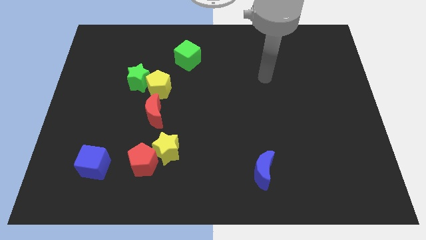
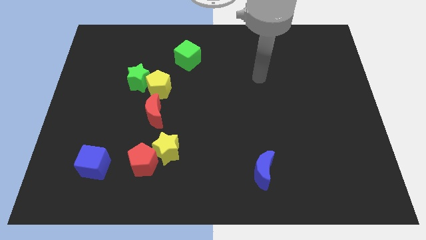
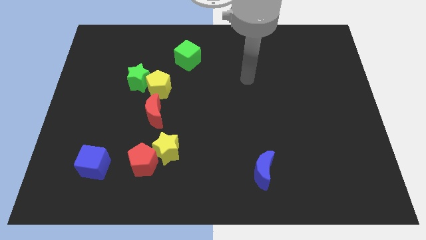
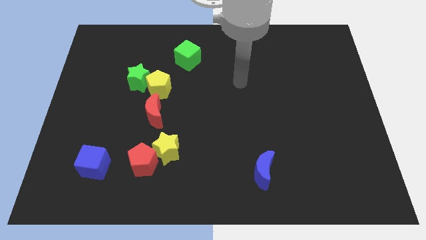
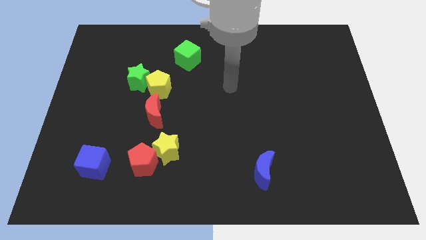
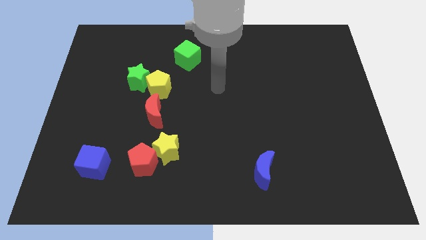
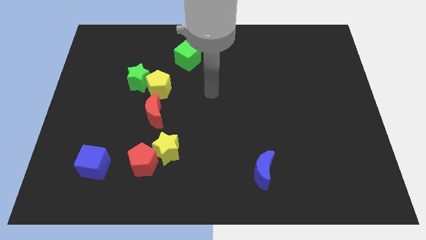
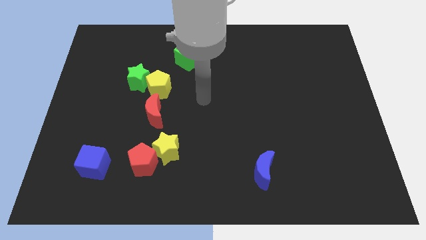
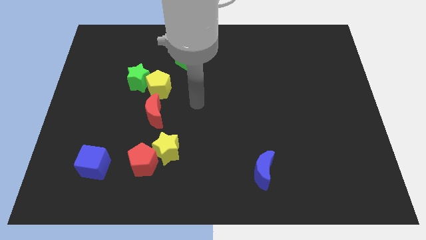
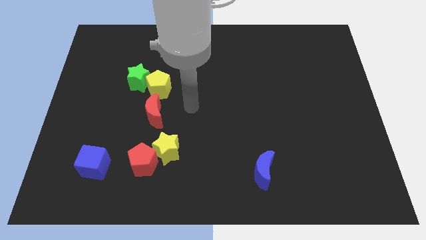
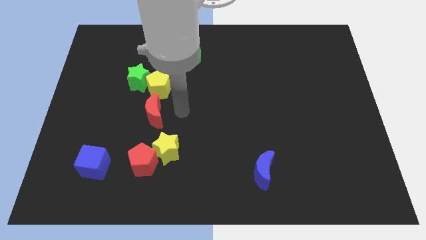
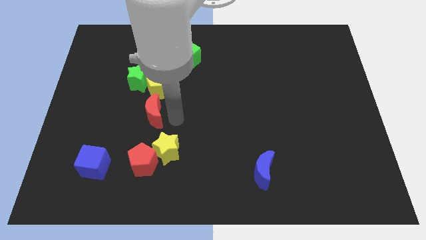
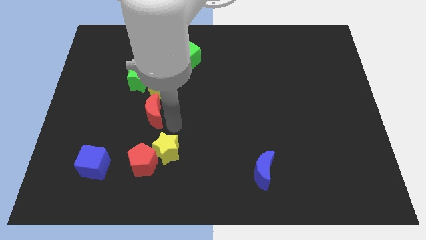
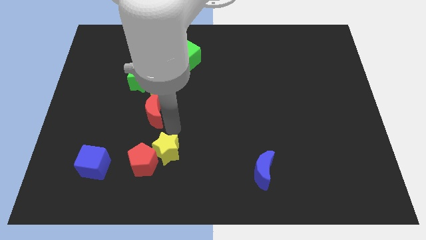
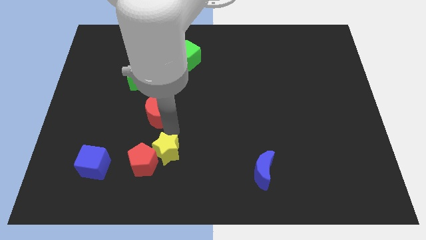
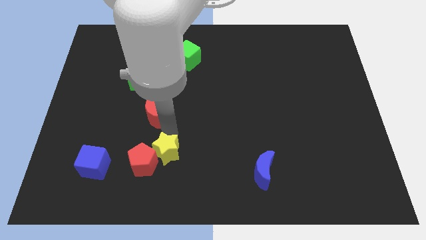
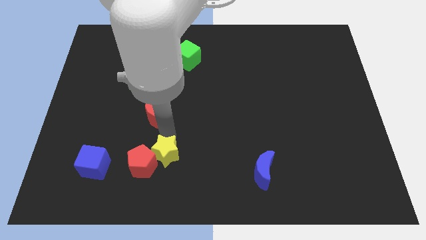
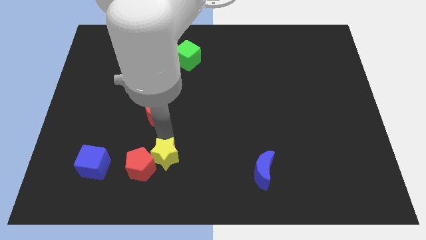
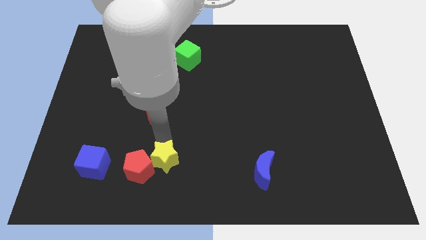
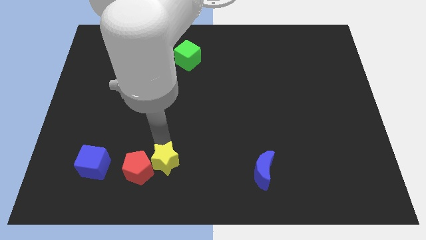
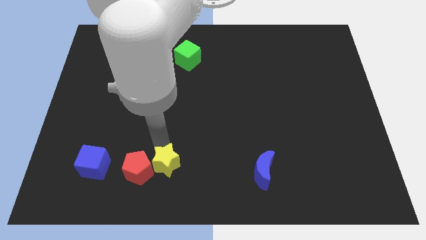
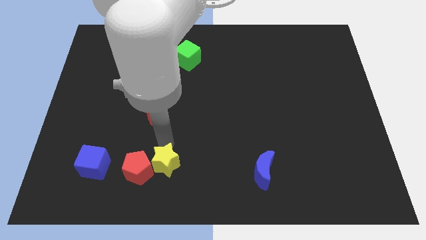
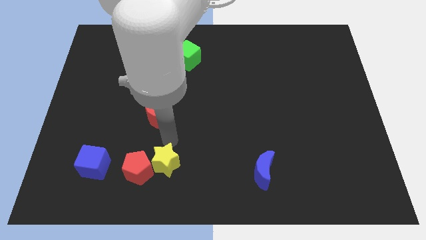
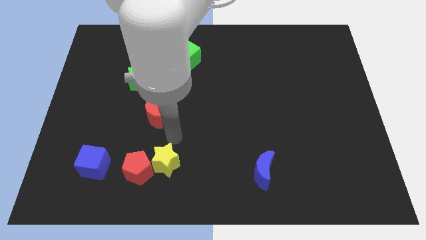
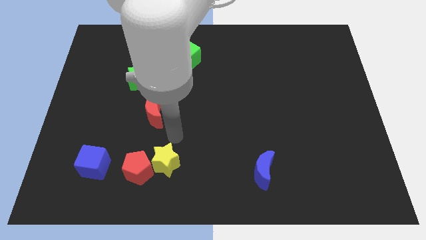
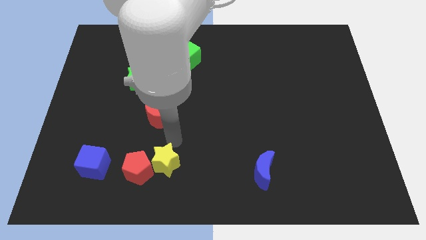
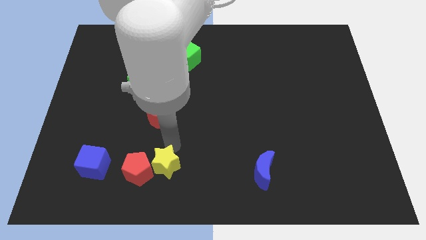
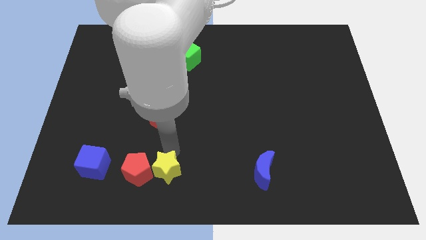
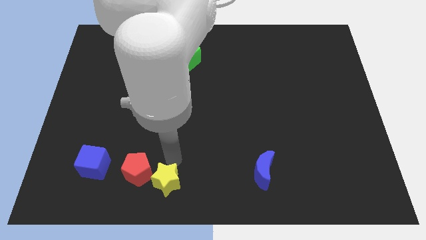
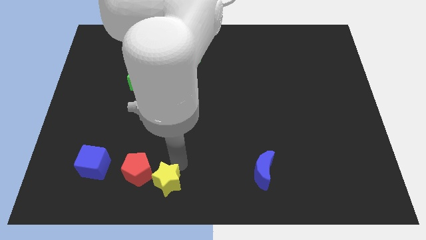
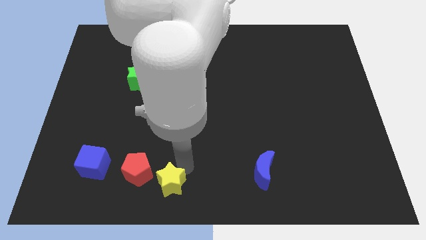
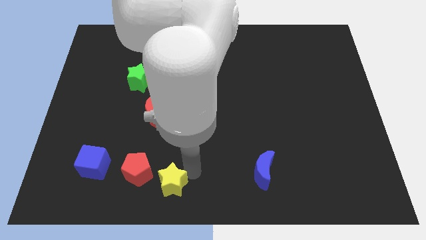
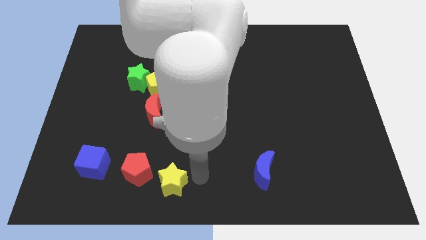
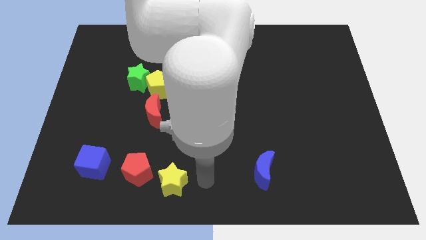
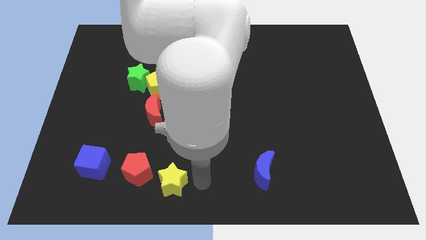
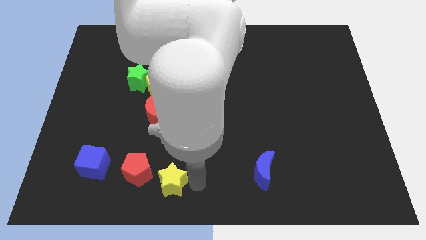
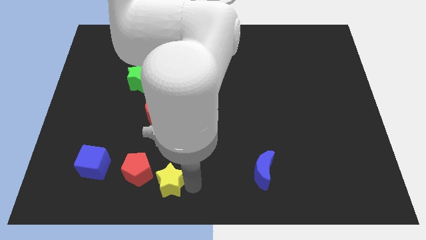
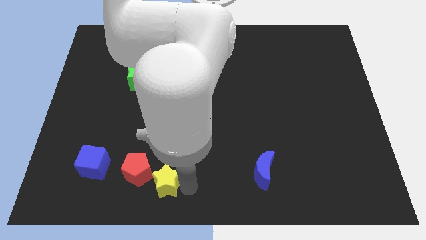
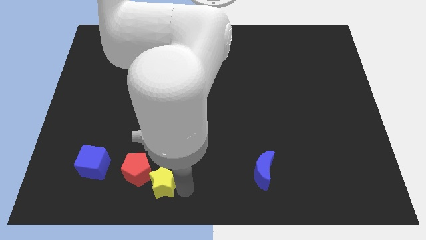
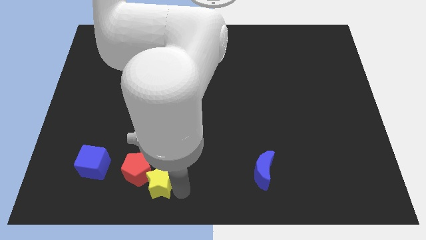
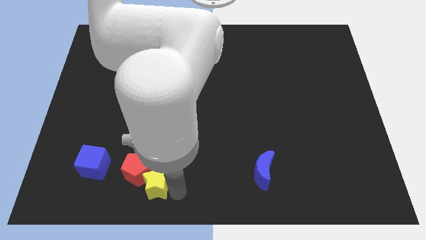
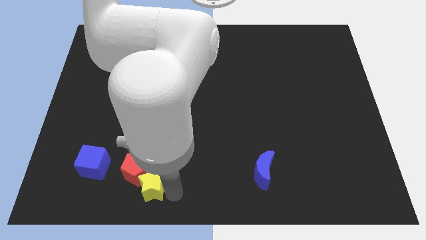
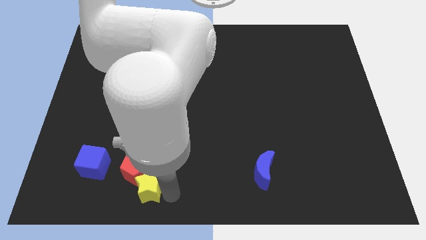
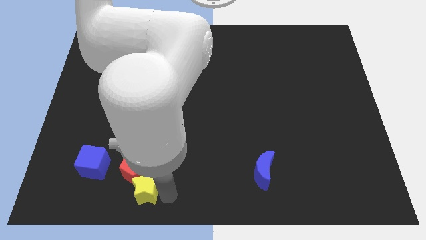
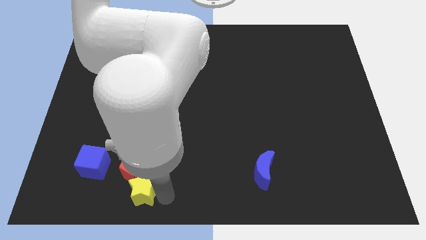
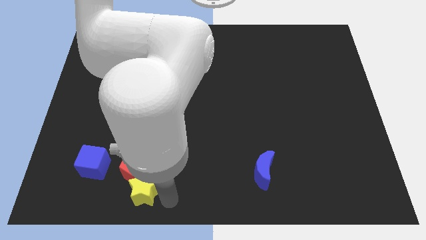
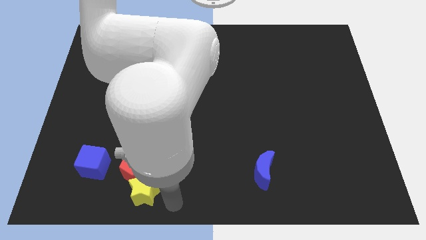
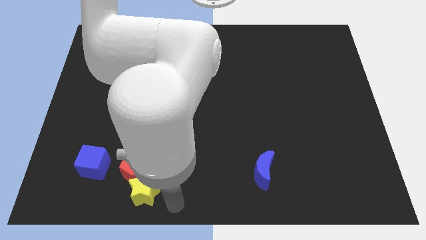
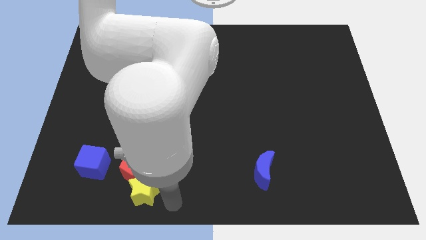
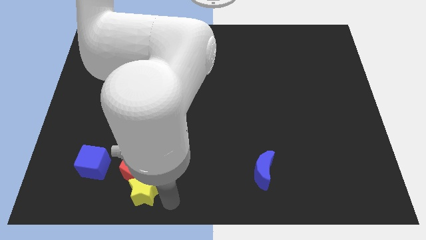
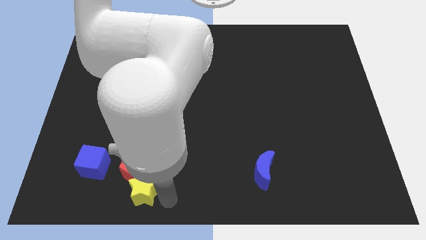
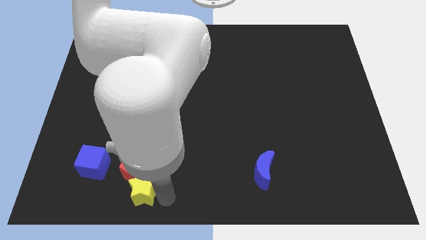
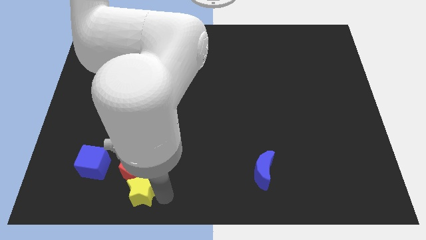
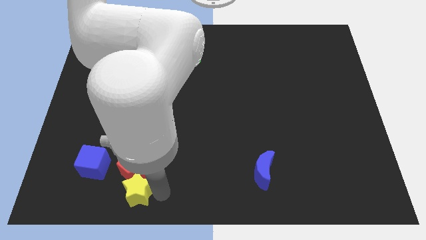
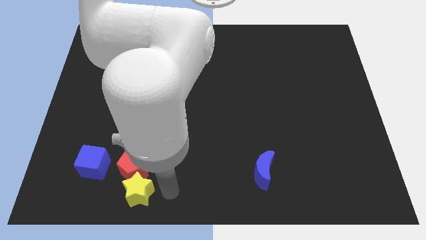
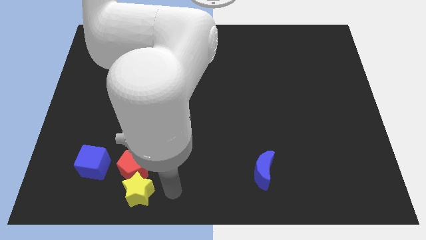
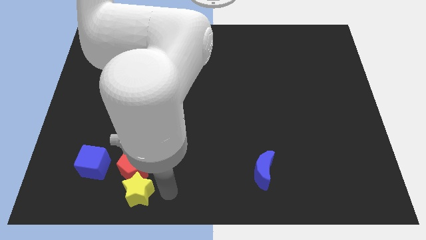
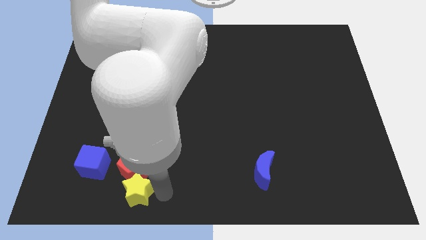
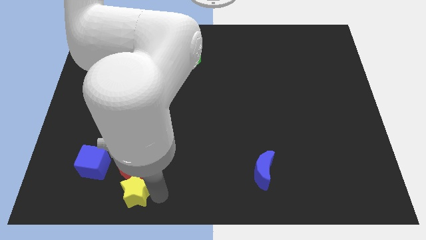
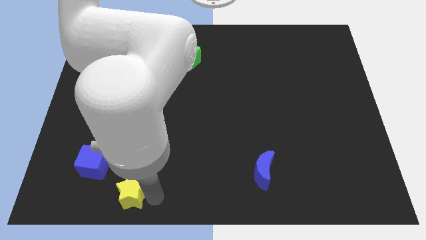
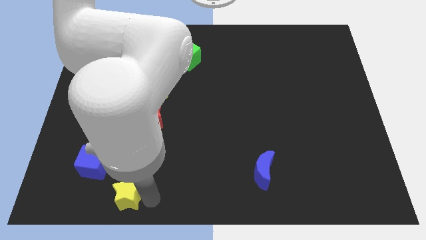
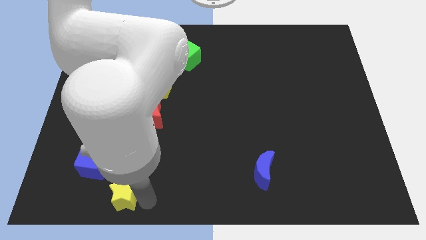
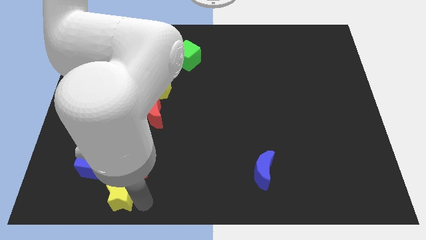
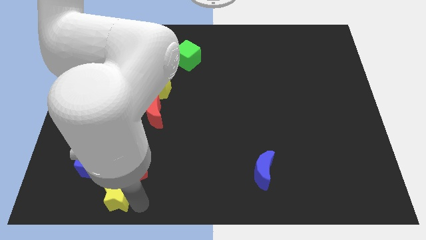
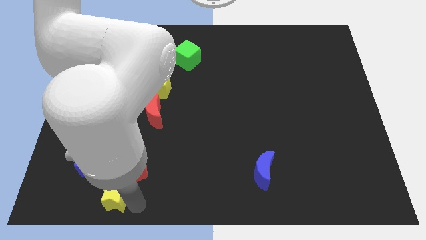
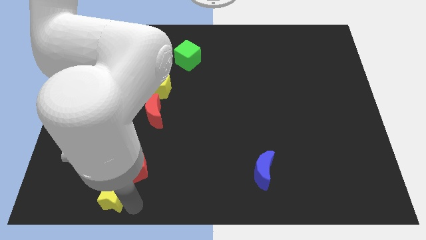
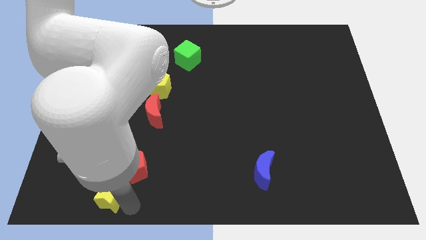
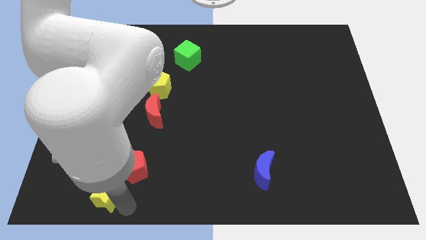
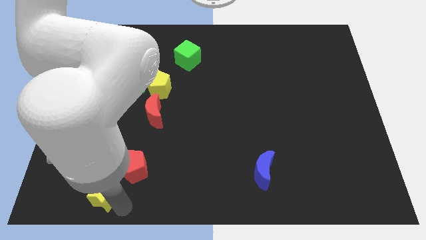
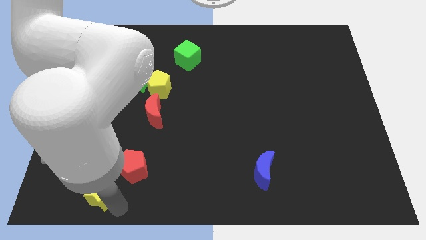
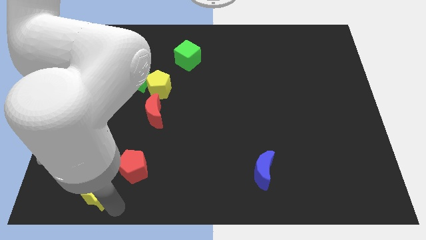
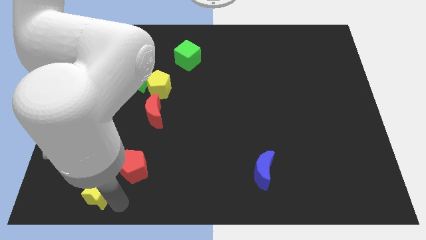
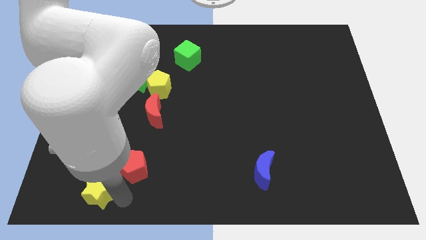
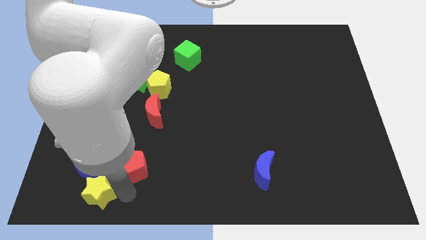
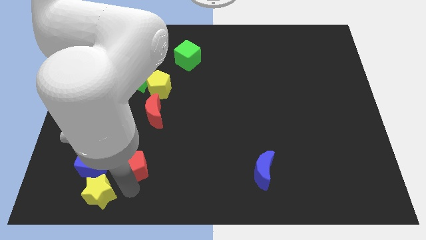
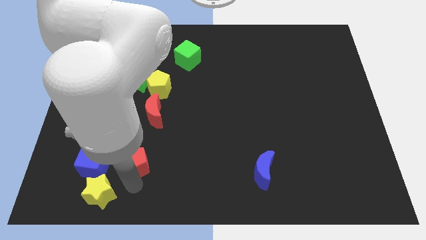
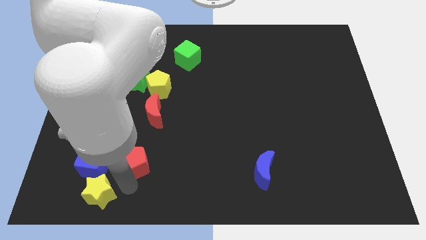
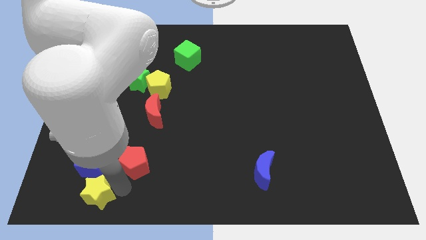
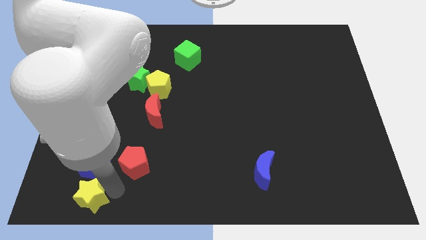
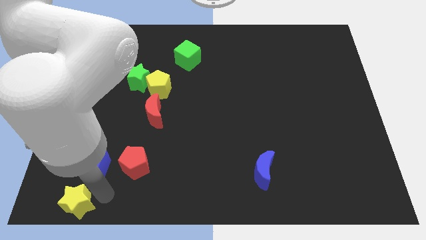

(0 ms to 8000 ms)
put the yellow star to the bottom left
